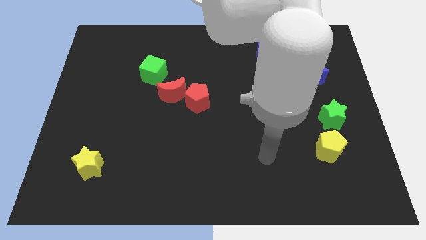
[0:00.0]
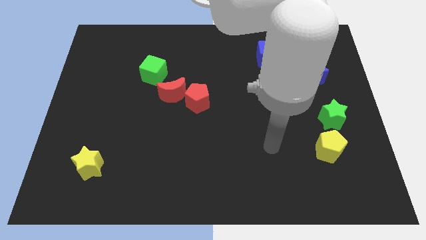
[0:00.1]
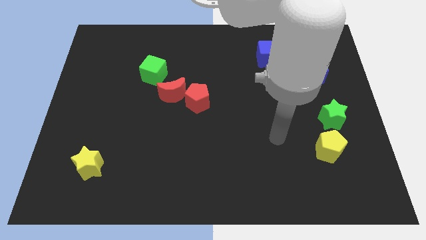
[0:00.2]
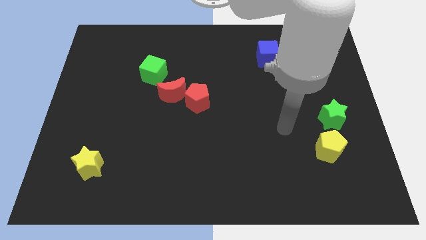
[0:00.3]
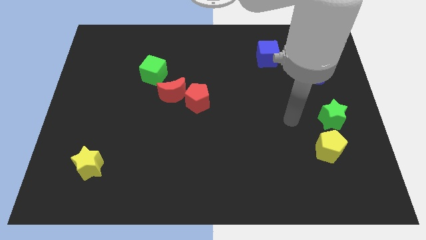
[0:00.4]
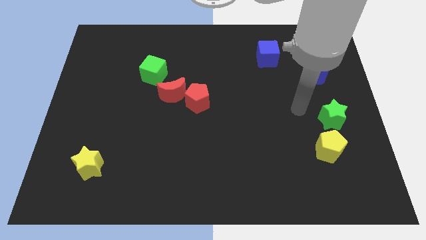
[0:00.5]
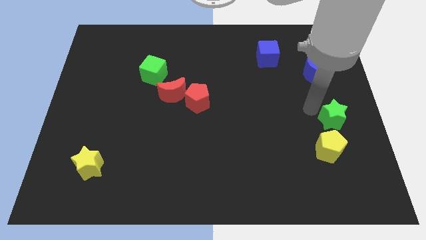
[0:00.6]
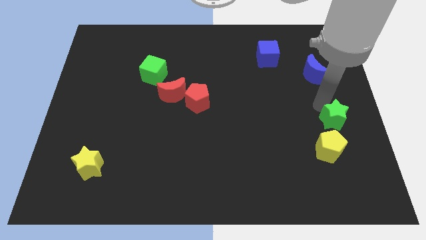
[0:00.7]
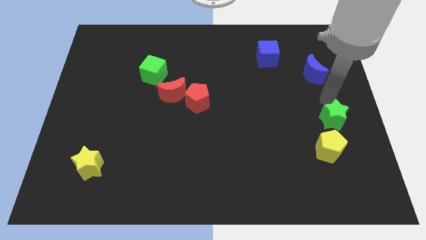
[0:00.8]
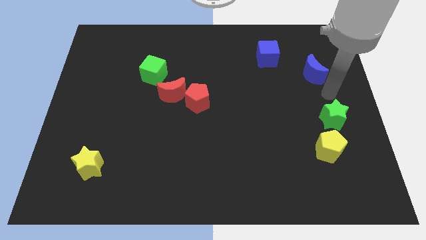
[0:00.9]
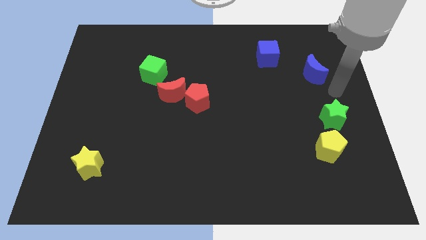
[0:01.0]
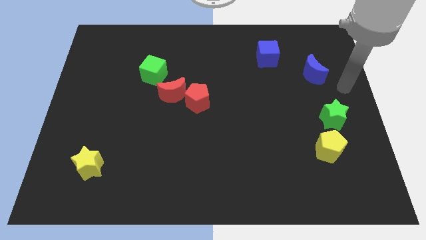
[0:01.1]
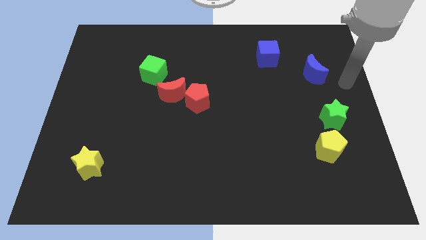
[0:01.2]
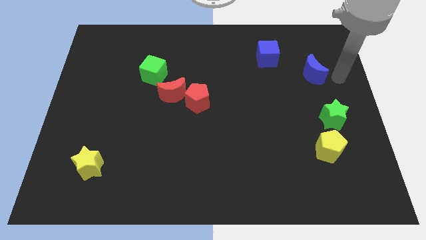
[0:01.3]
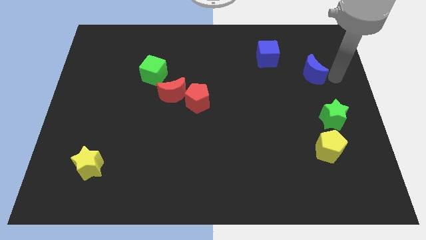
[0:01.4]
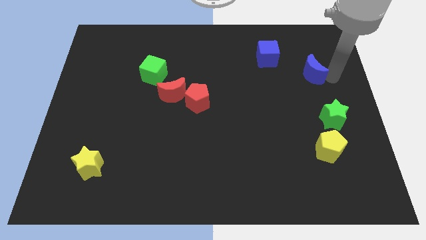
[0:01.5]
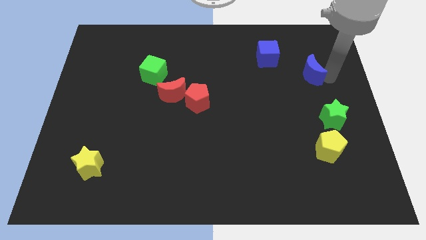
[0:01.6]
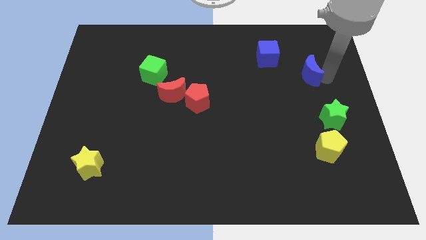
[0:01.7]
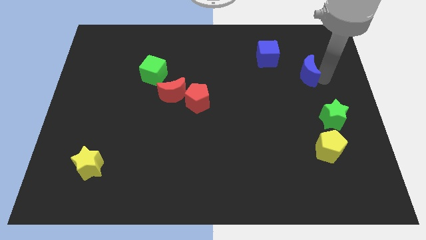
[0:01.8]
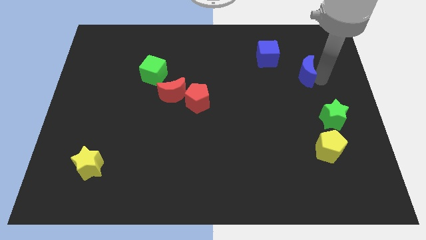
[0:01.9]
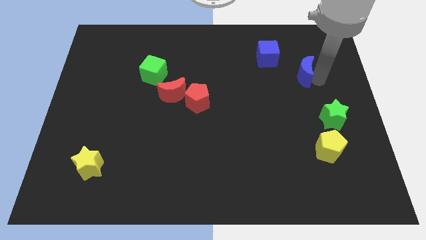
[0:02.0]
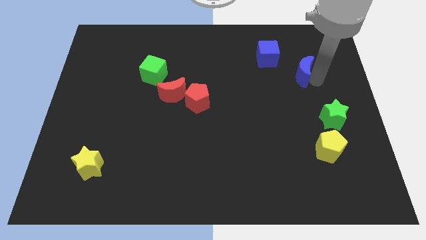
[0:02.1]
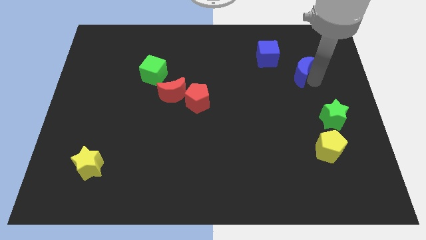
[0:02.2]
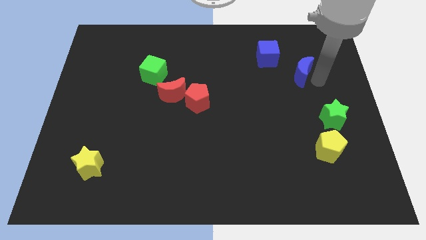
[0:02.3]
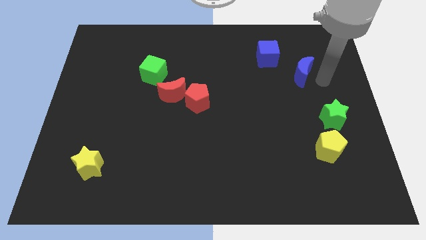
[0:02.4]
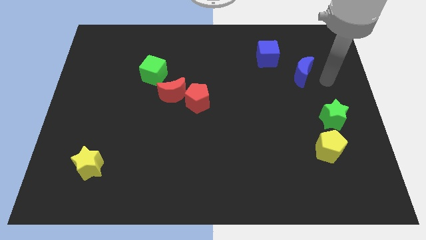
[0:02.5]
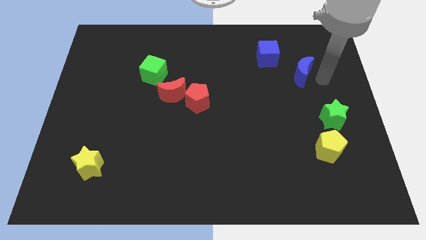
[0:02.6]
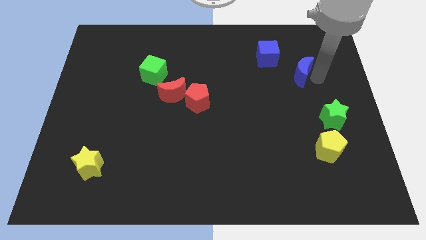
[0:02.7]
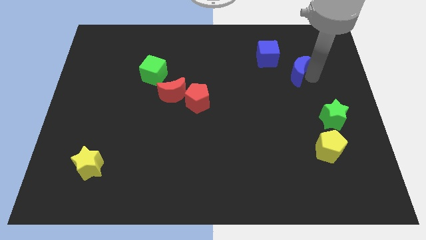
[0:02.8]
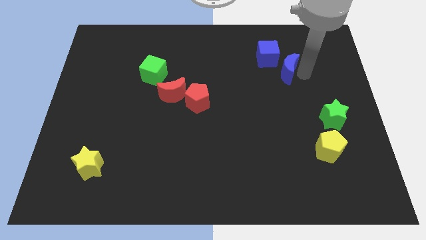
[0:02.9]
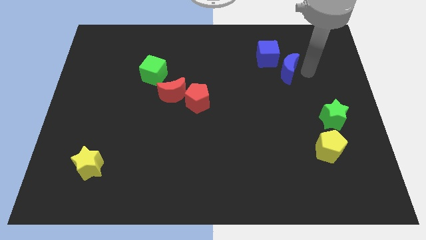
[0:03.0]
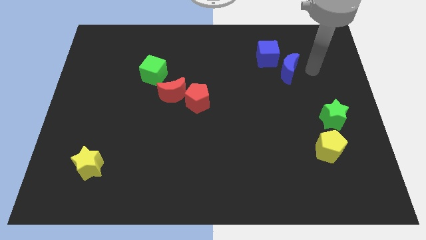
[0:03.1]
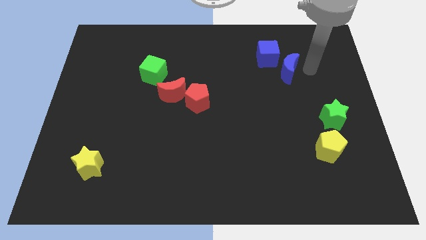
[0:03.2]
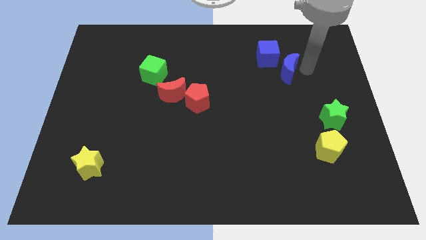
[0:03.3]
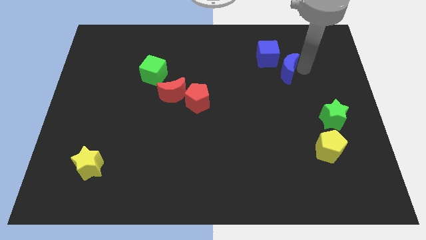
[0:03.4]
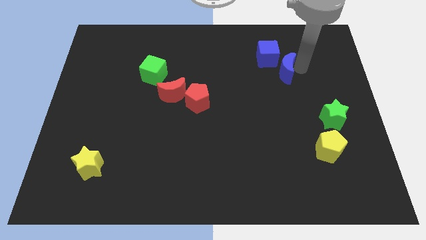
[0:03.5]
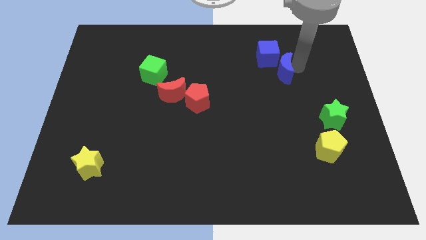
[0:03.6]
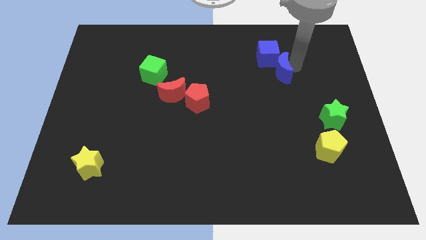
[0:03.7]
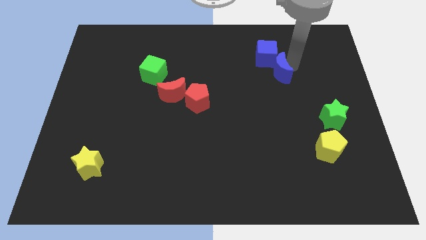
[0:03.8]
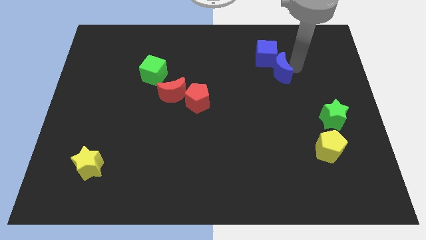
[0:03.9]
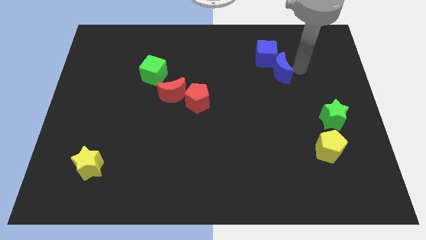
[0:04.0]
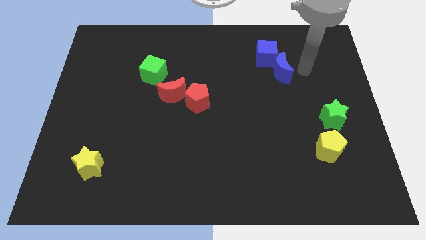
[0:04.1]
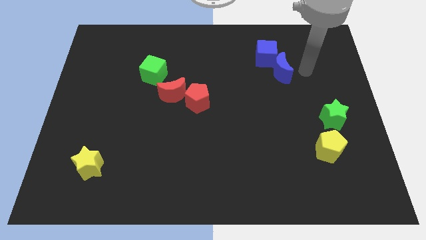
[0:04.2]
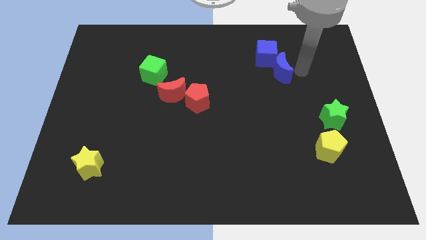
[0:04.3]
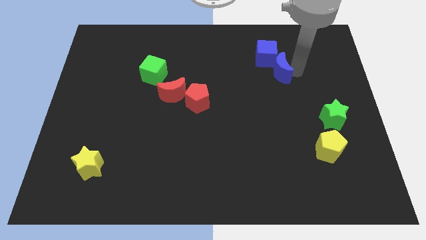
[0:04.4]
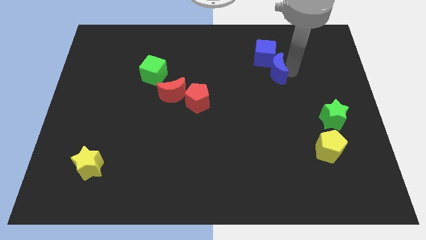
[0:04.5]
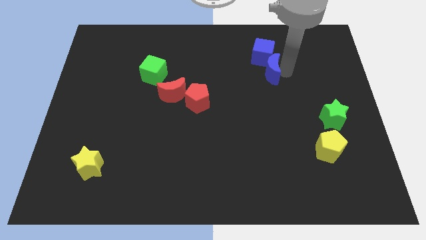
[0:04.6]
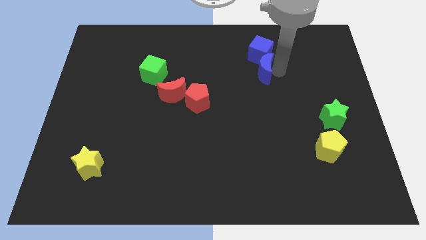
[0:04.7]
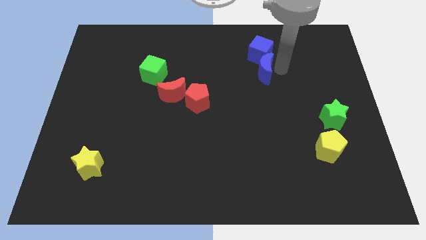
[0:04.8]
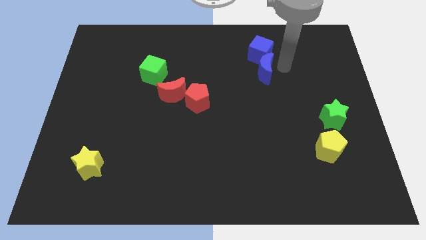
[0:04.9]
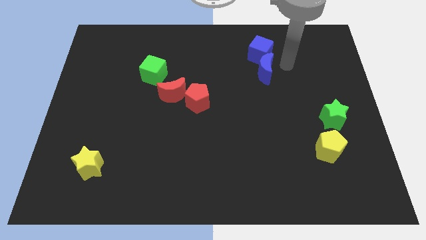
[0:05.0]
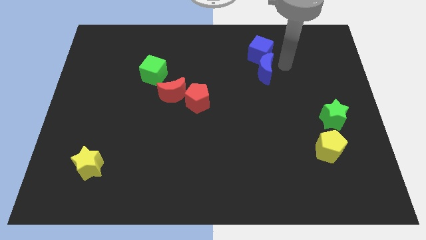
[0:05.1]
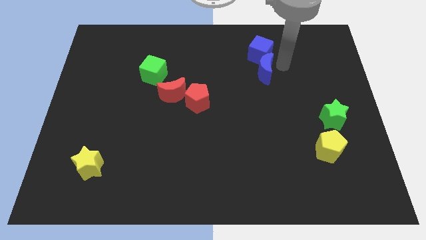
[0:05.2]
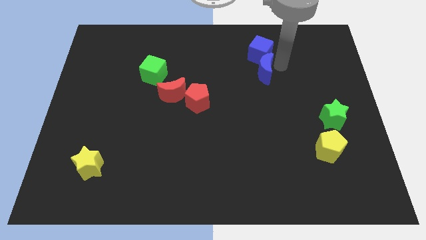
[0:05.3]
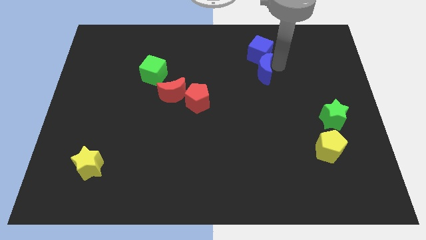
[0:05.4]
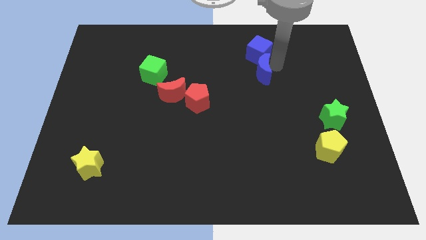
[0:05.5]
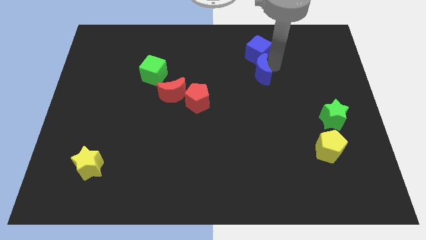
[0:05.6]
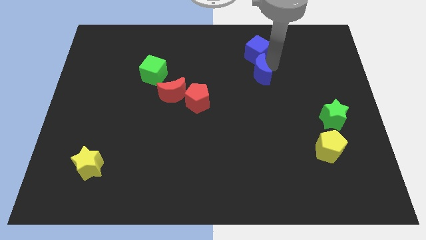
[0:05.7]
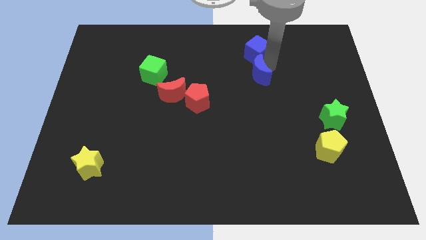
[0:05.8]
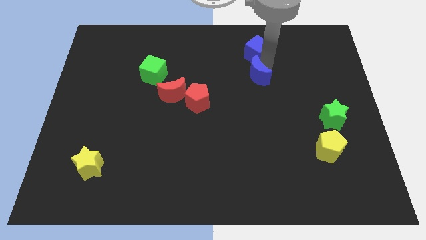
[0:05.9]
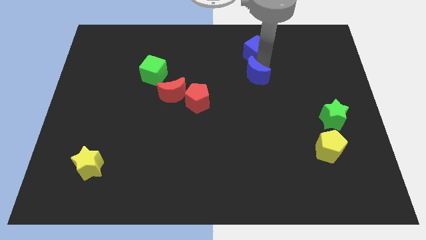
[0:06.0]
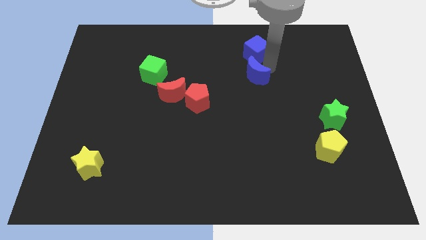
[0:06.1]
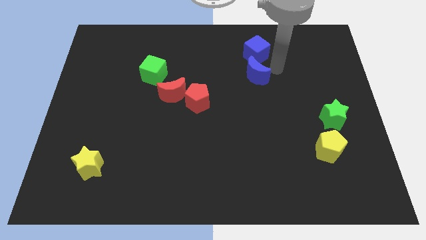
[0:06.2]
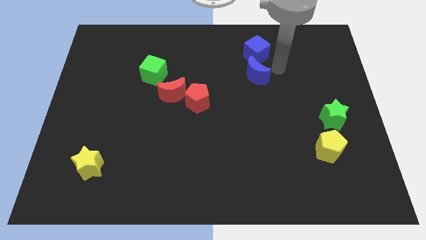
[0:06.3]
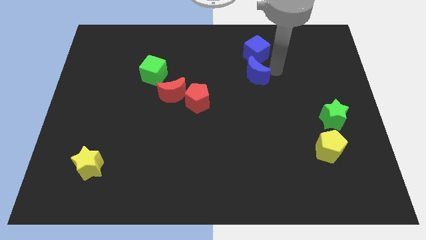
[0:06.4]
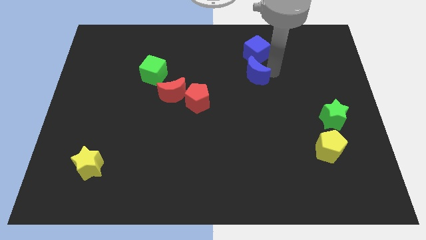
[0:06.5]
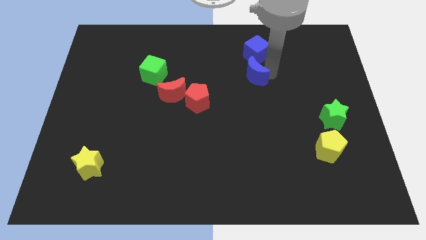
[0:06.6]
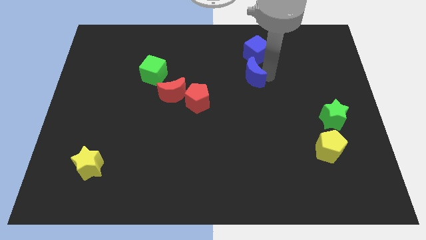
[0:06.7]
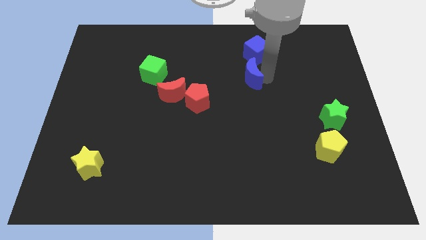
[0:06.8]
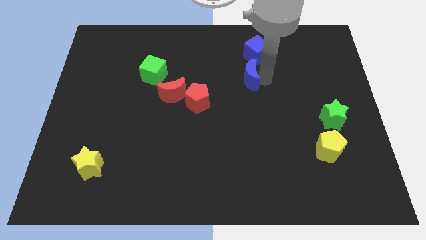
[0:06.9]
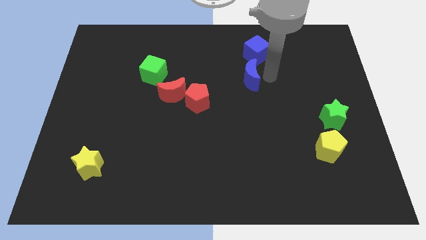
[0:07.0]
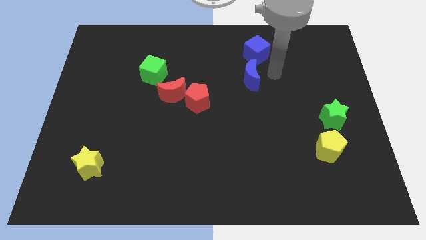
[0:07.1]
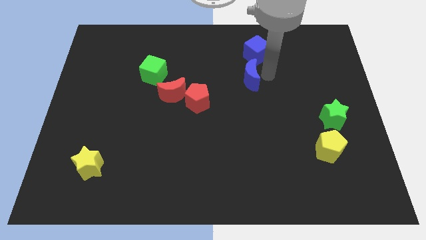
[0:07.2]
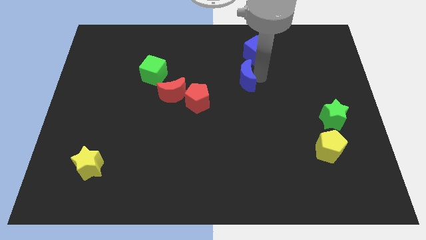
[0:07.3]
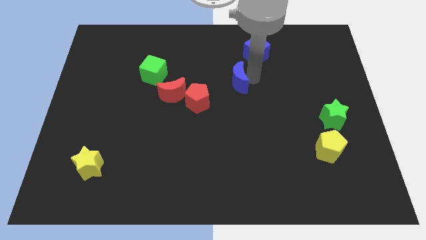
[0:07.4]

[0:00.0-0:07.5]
put the blue moon to the top right side of the red pentagon

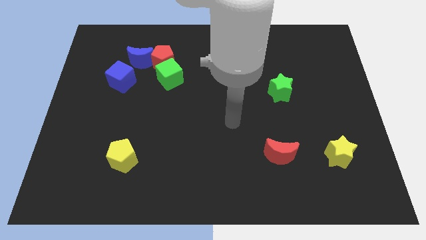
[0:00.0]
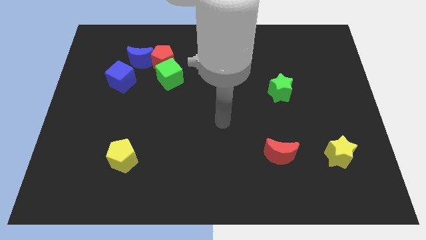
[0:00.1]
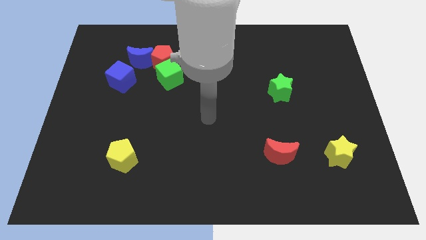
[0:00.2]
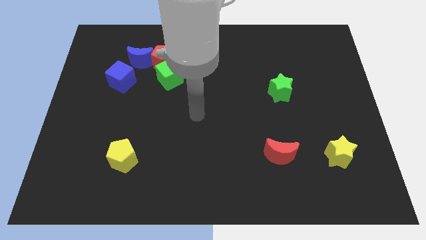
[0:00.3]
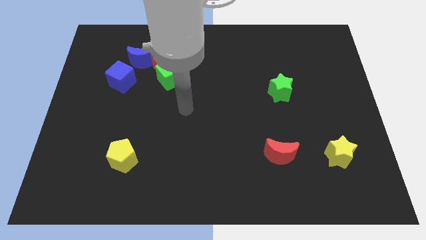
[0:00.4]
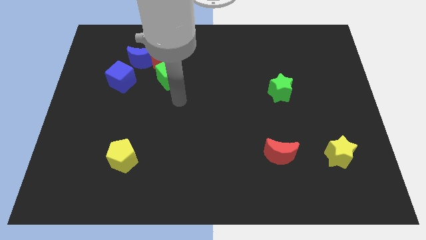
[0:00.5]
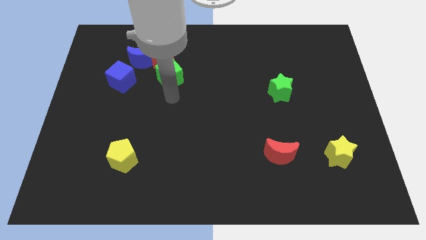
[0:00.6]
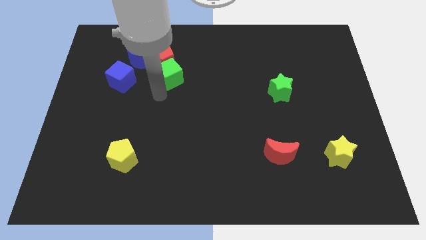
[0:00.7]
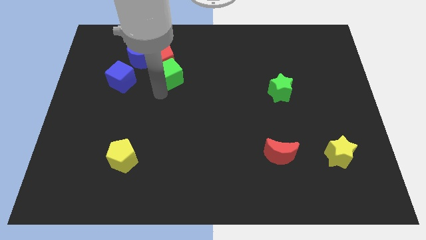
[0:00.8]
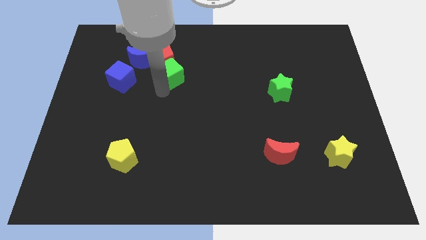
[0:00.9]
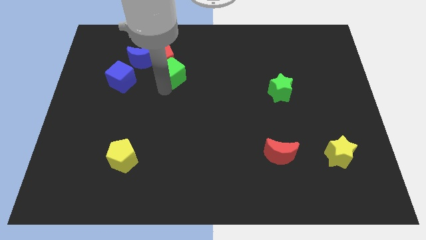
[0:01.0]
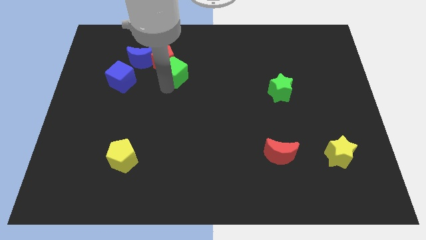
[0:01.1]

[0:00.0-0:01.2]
put the green cube to the right side of the blue moon
